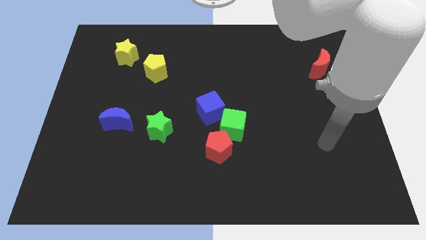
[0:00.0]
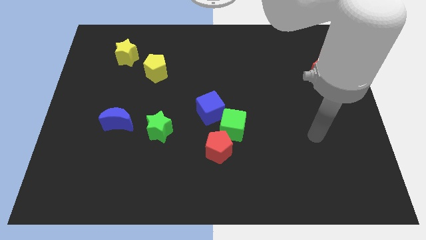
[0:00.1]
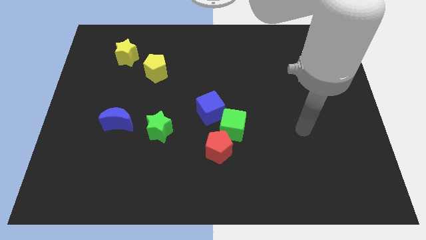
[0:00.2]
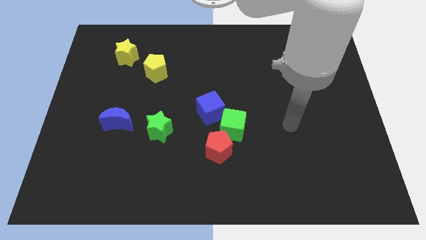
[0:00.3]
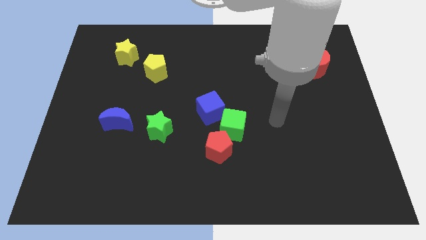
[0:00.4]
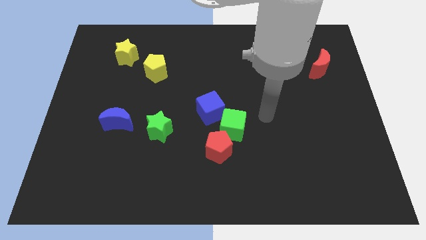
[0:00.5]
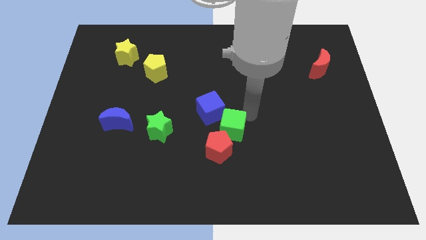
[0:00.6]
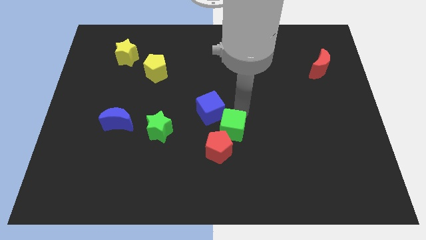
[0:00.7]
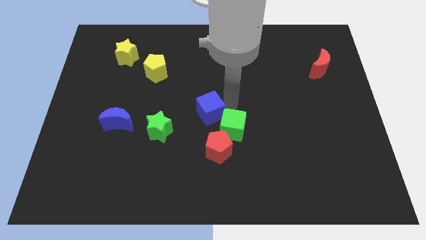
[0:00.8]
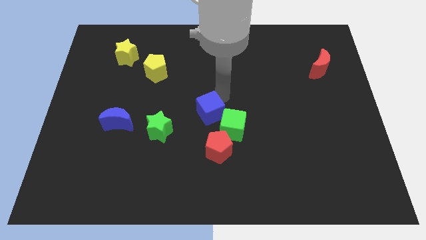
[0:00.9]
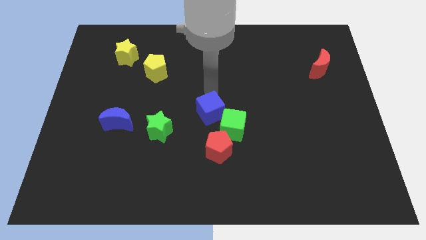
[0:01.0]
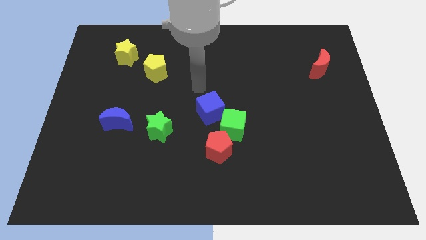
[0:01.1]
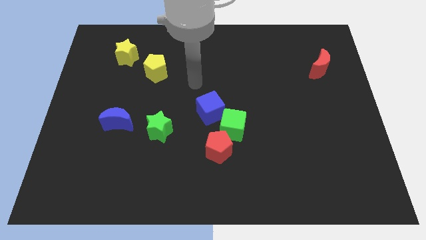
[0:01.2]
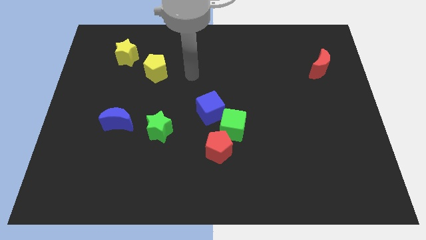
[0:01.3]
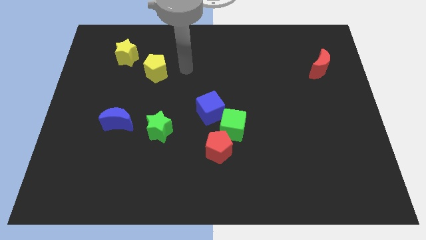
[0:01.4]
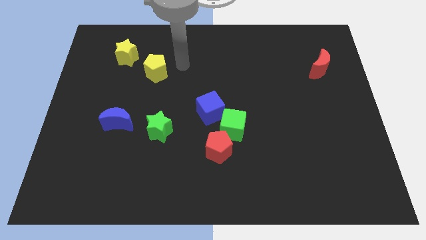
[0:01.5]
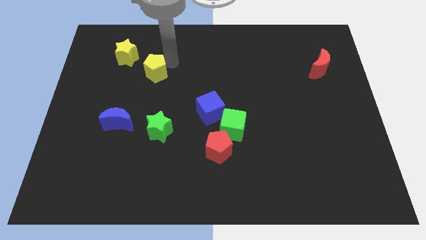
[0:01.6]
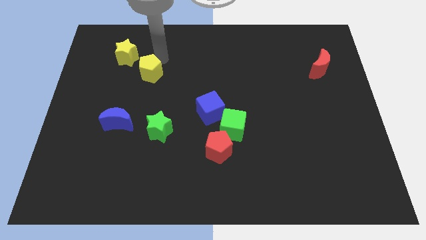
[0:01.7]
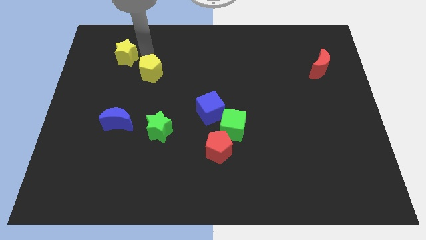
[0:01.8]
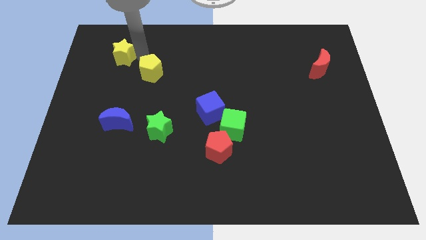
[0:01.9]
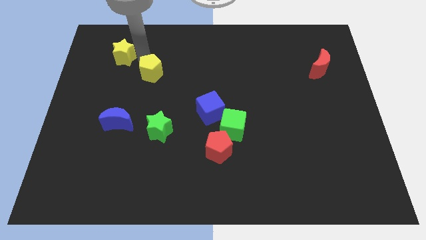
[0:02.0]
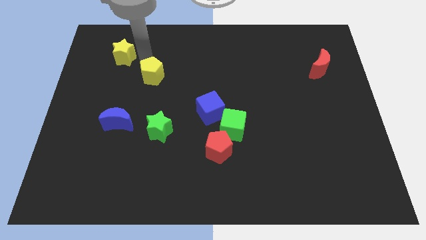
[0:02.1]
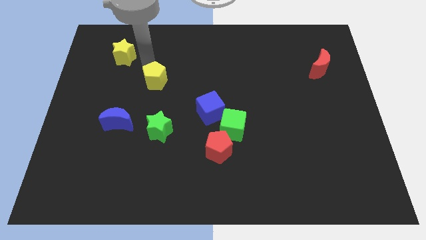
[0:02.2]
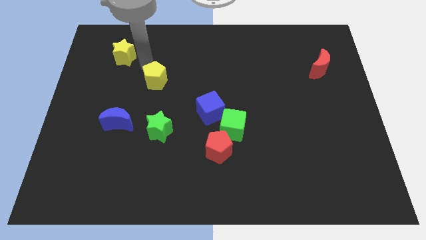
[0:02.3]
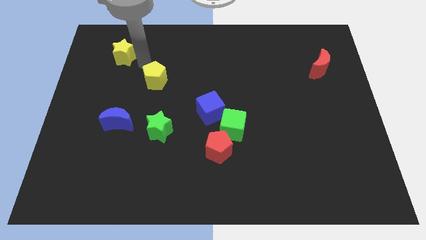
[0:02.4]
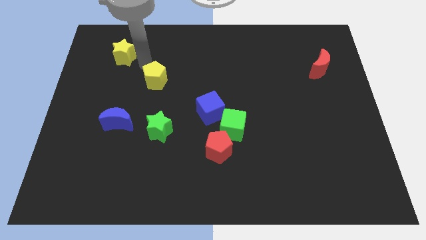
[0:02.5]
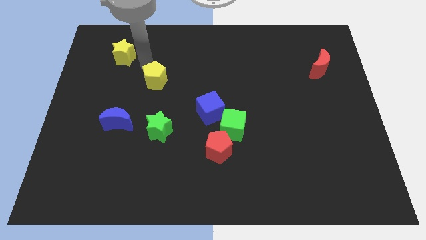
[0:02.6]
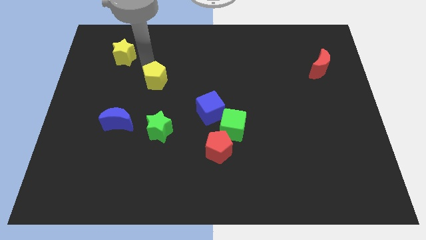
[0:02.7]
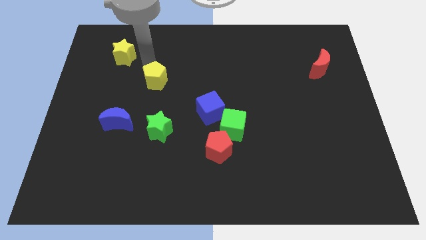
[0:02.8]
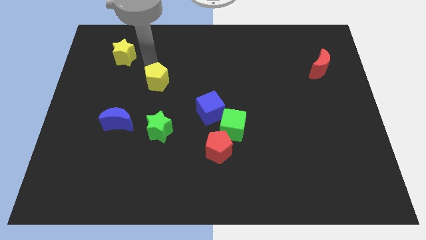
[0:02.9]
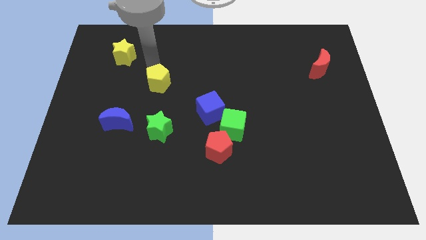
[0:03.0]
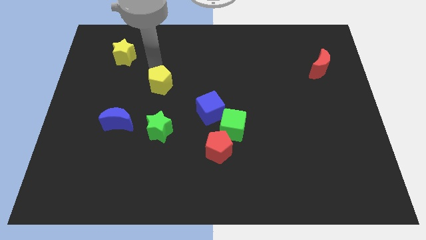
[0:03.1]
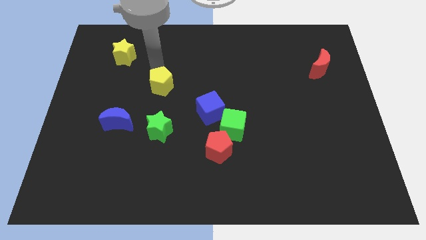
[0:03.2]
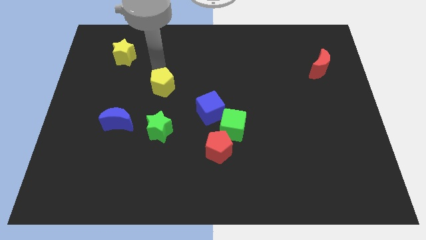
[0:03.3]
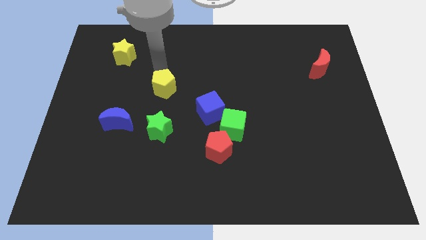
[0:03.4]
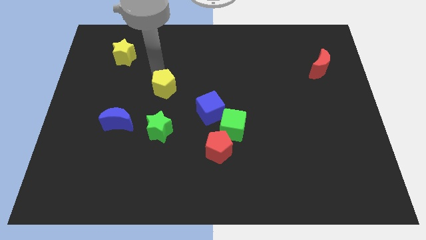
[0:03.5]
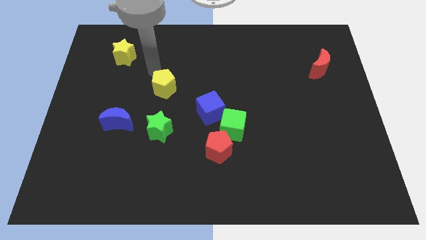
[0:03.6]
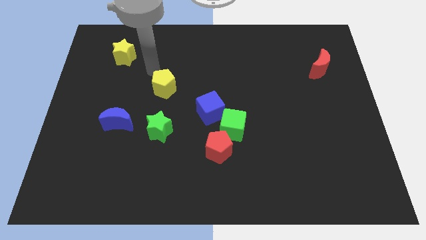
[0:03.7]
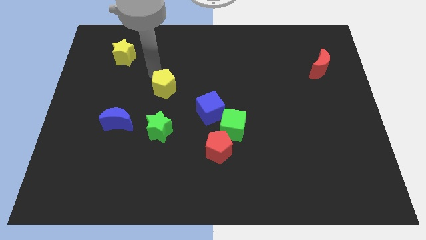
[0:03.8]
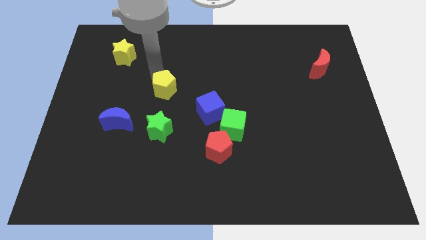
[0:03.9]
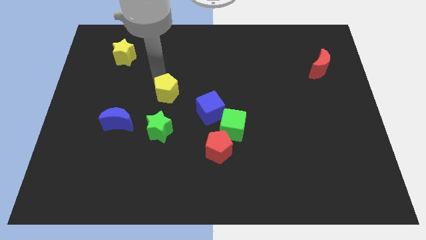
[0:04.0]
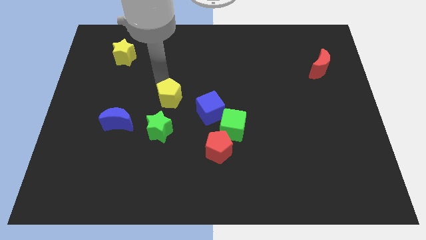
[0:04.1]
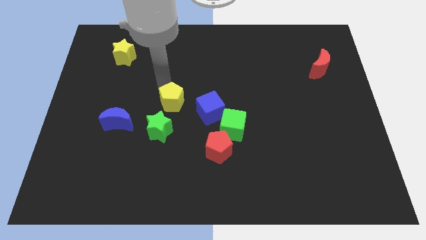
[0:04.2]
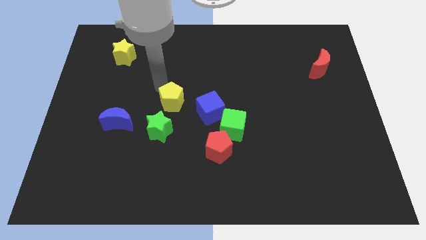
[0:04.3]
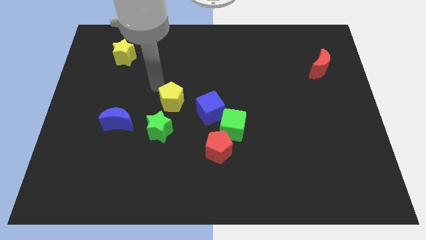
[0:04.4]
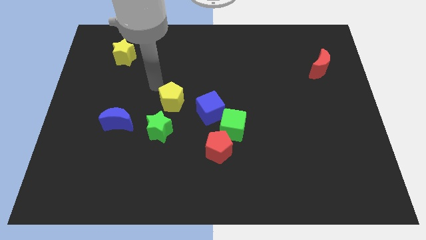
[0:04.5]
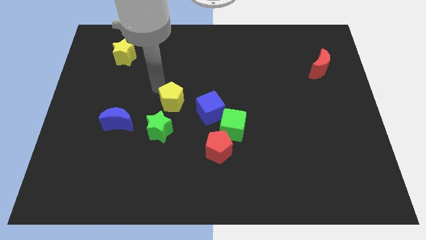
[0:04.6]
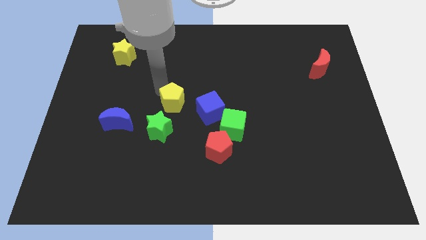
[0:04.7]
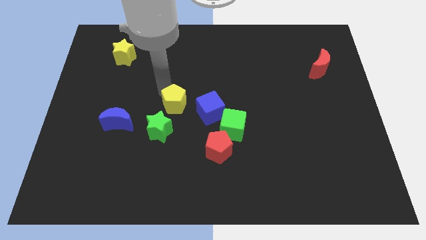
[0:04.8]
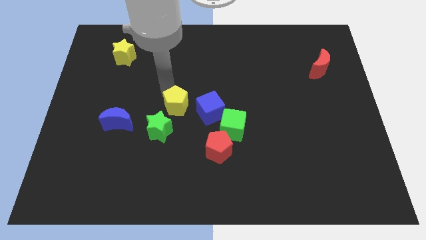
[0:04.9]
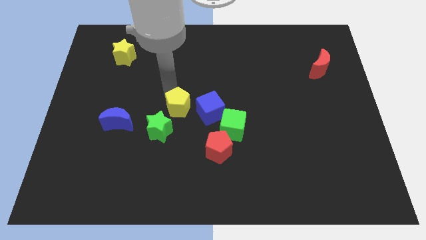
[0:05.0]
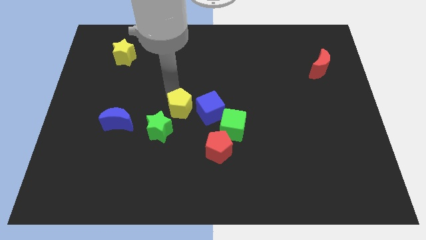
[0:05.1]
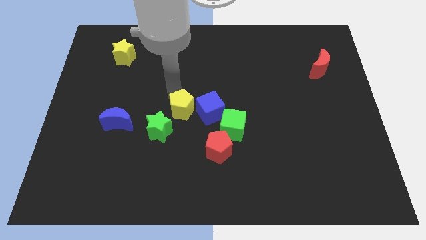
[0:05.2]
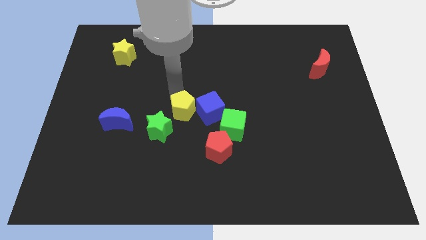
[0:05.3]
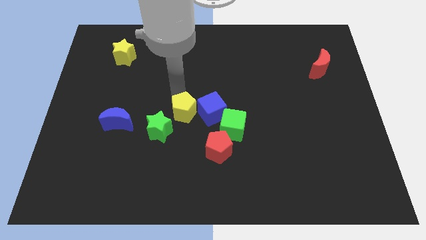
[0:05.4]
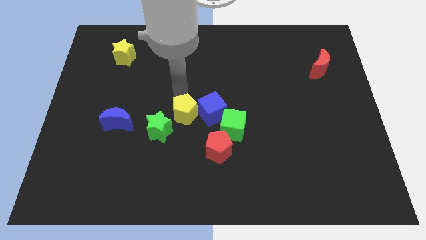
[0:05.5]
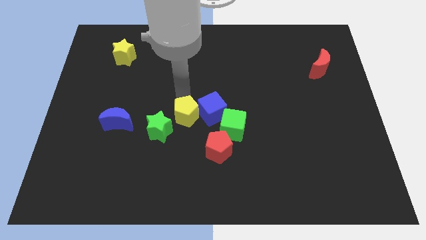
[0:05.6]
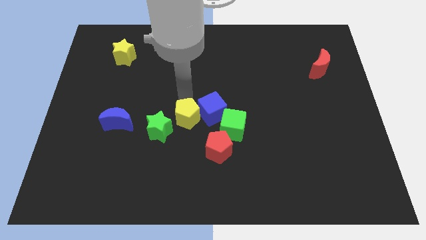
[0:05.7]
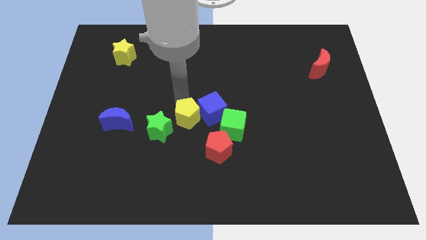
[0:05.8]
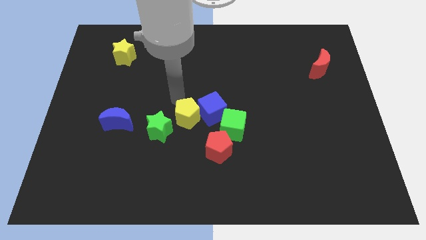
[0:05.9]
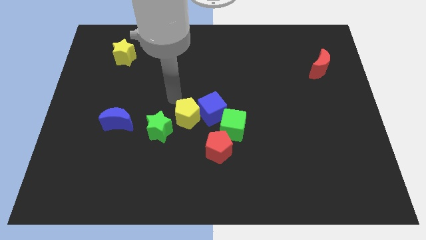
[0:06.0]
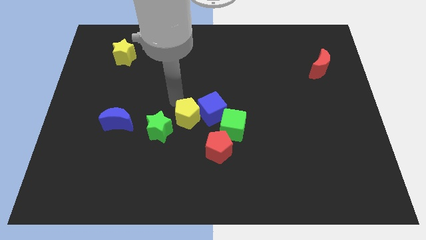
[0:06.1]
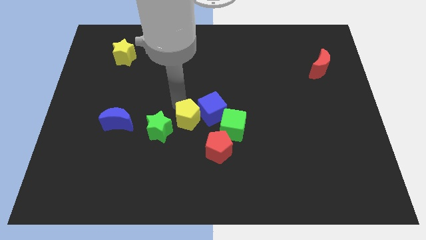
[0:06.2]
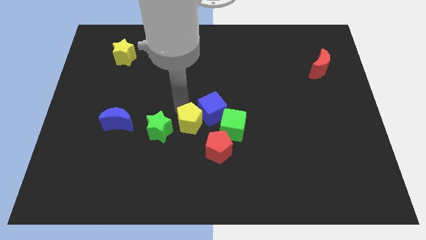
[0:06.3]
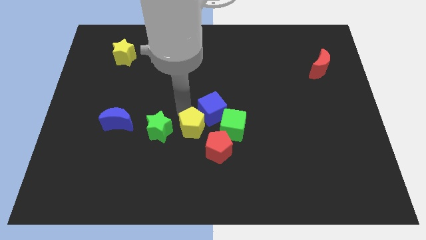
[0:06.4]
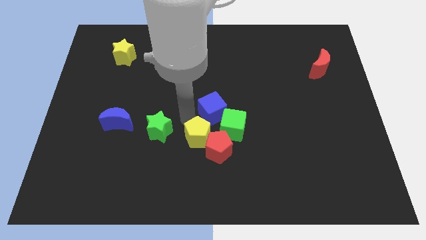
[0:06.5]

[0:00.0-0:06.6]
move the yellow pentagon close to the red pentagon

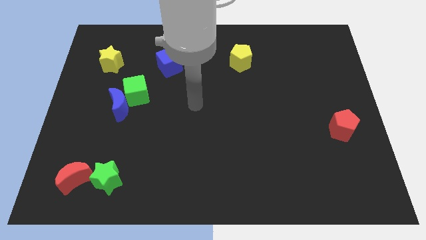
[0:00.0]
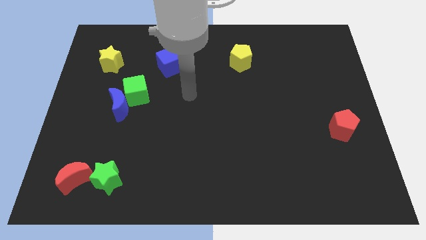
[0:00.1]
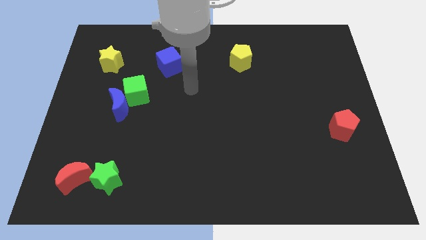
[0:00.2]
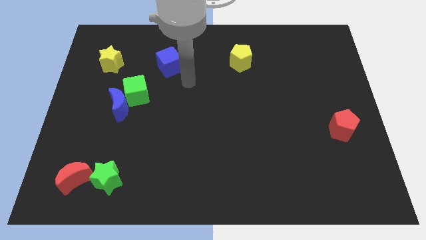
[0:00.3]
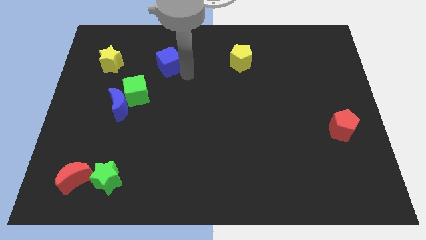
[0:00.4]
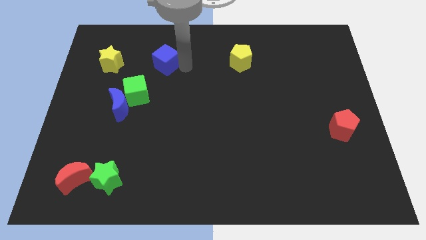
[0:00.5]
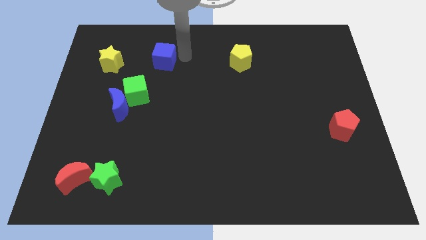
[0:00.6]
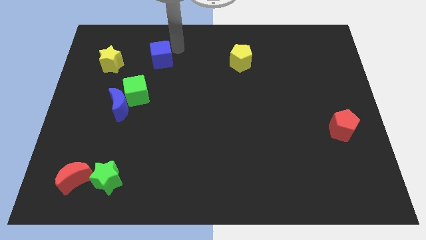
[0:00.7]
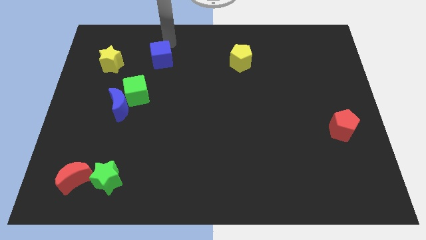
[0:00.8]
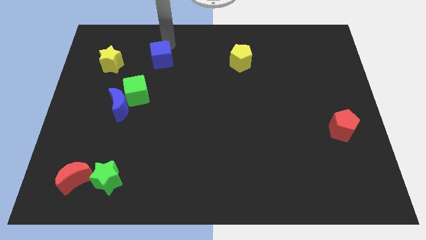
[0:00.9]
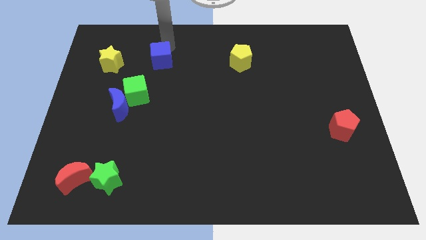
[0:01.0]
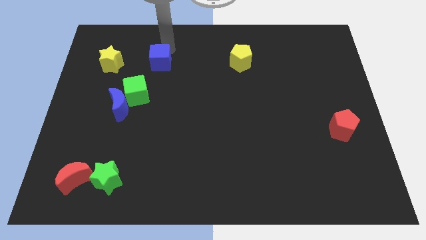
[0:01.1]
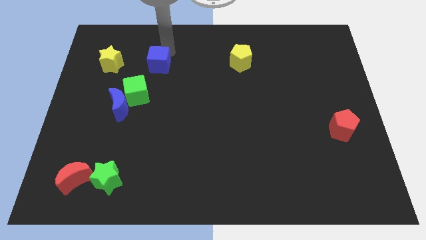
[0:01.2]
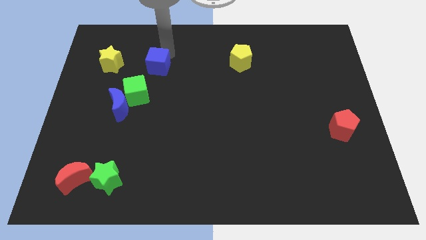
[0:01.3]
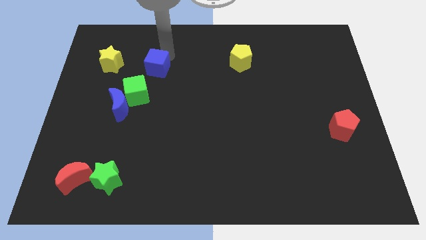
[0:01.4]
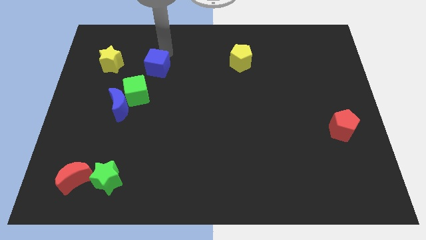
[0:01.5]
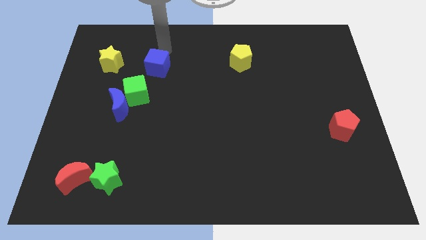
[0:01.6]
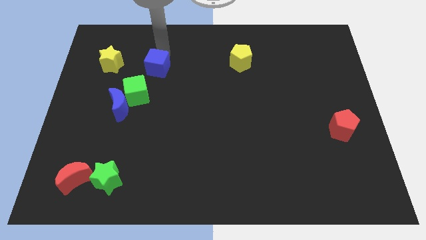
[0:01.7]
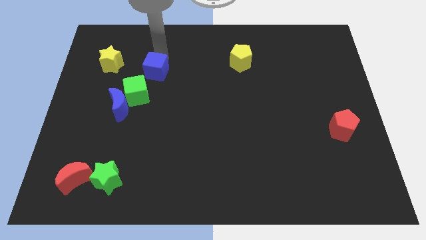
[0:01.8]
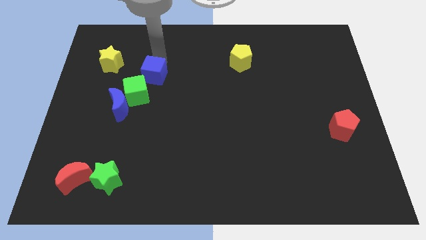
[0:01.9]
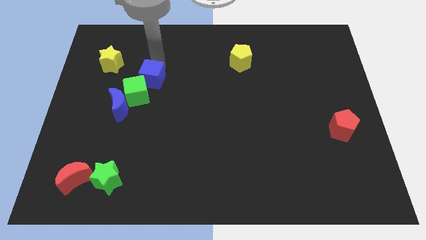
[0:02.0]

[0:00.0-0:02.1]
move the blue cube next to the green cube
